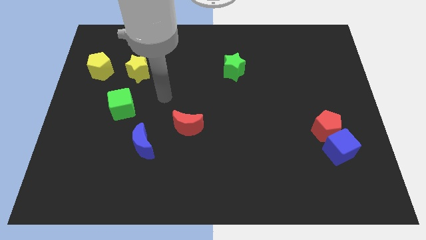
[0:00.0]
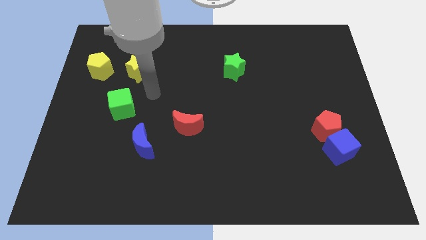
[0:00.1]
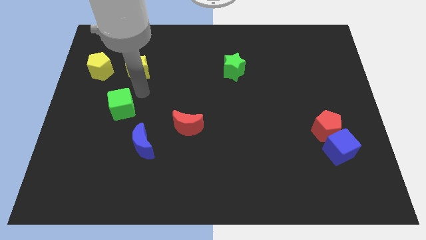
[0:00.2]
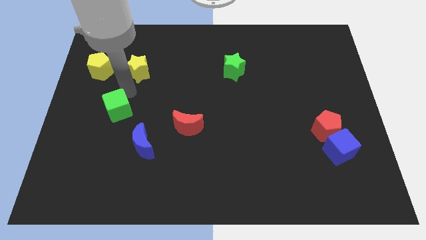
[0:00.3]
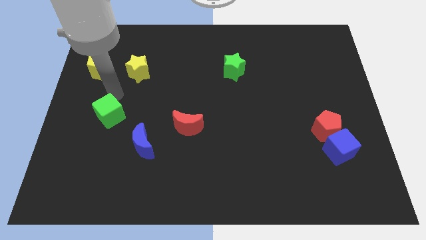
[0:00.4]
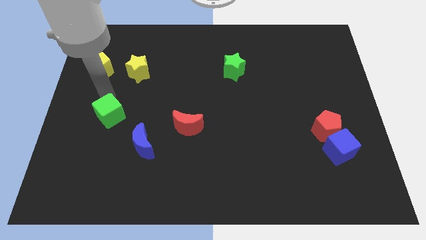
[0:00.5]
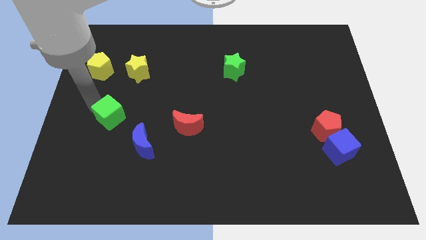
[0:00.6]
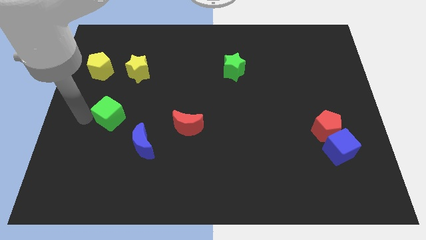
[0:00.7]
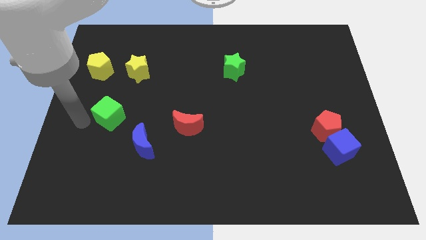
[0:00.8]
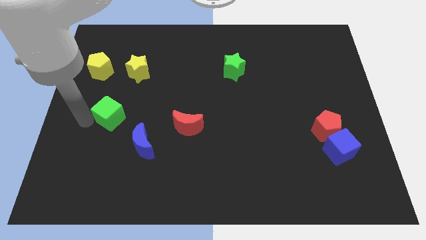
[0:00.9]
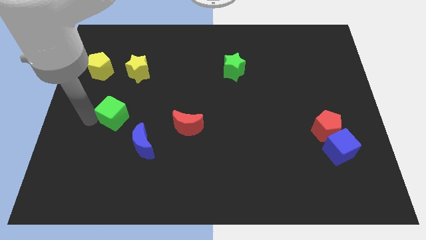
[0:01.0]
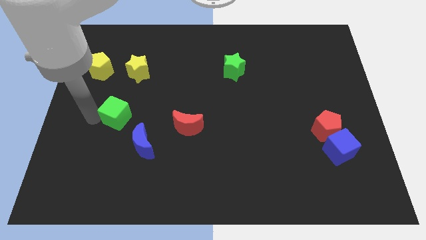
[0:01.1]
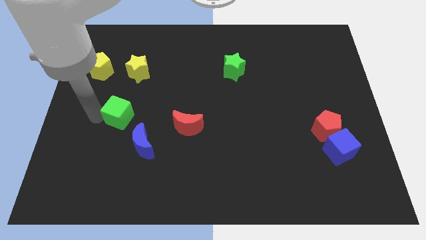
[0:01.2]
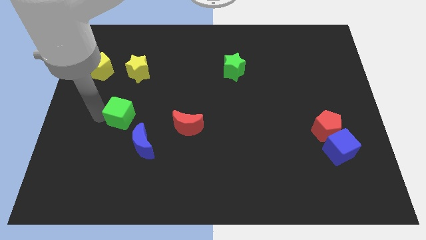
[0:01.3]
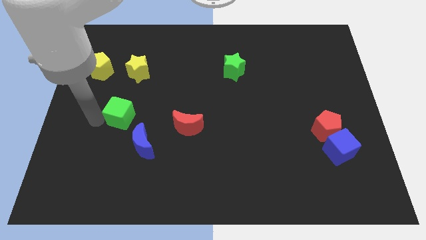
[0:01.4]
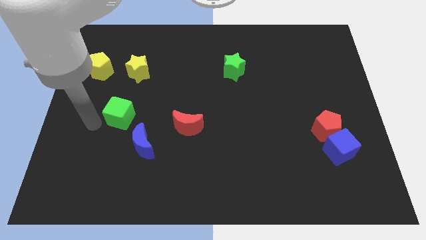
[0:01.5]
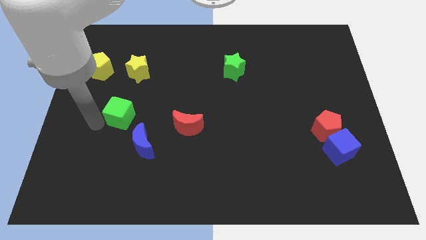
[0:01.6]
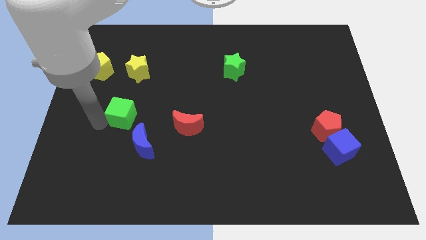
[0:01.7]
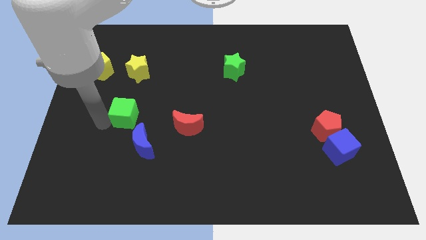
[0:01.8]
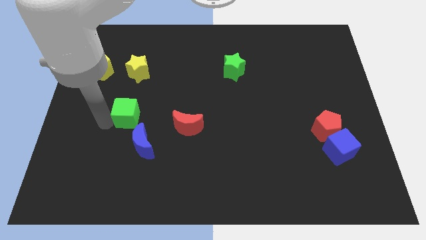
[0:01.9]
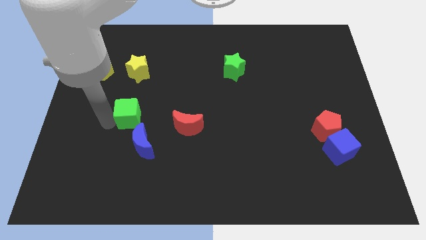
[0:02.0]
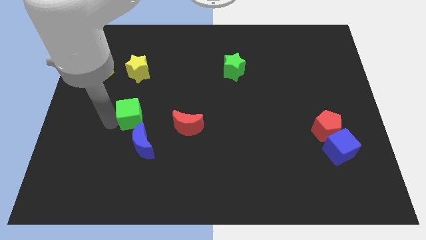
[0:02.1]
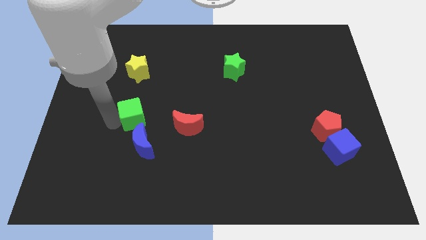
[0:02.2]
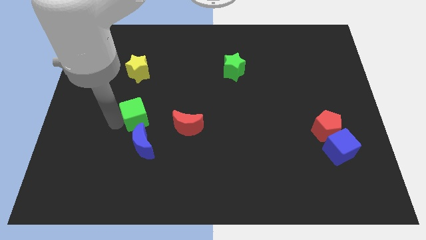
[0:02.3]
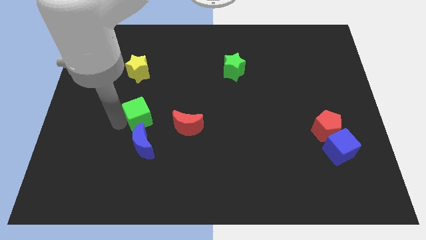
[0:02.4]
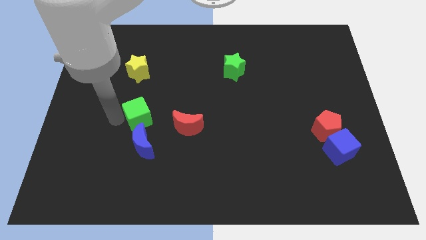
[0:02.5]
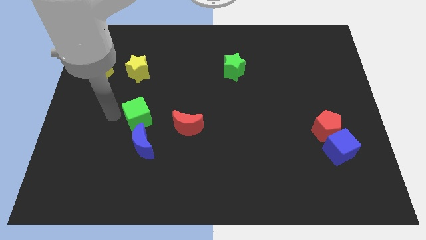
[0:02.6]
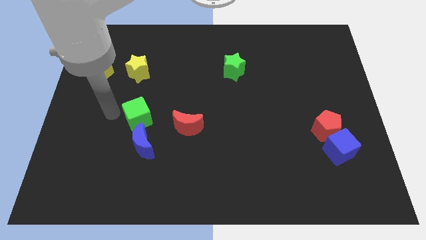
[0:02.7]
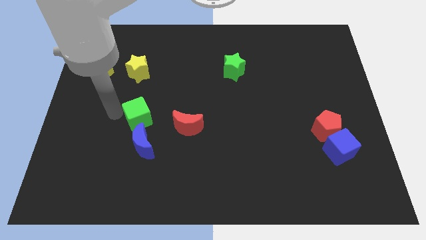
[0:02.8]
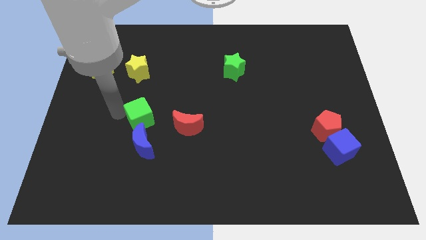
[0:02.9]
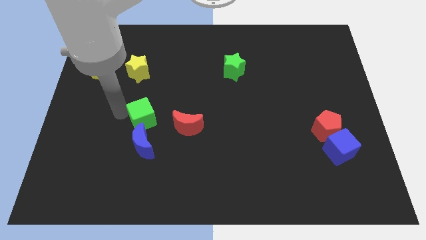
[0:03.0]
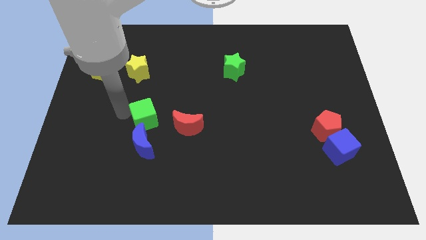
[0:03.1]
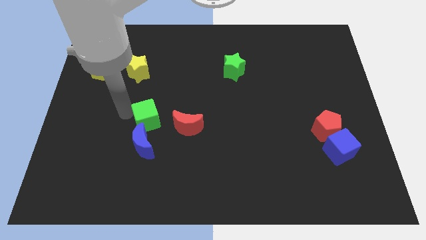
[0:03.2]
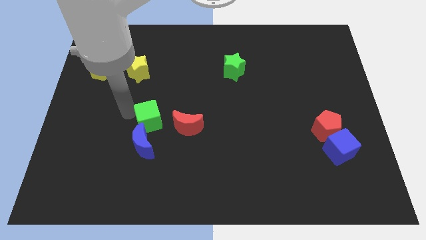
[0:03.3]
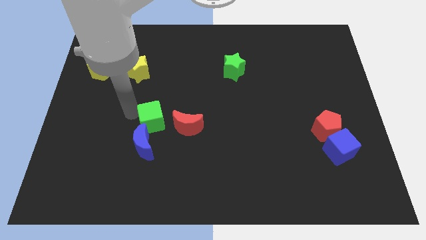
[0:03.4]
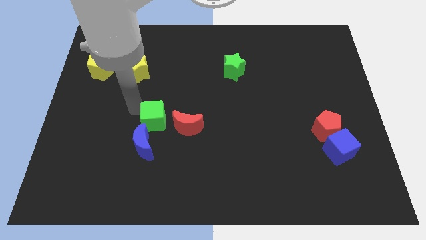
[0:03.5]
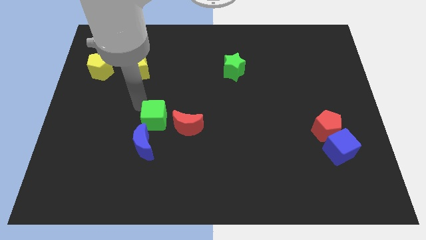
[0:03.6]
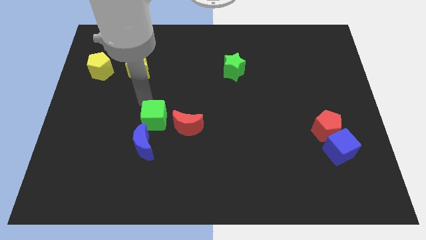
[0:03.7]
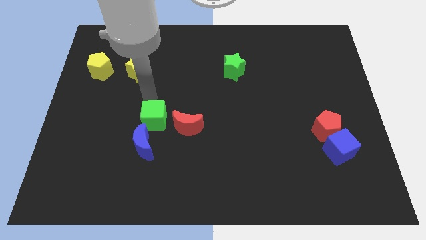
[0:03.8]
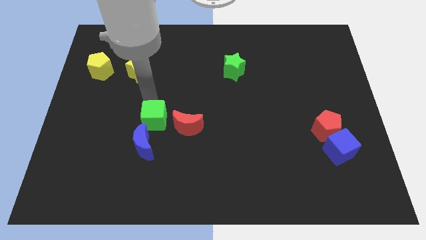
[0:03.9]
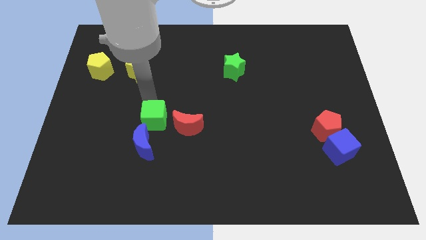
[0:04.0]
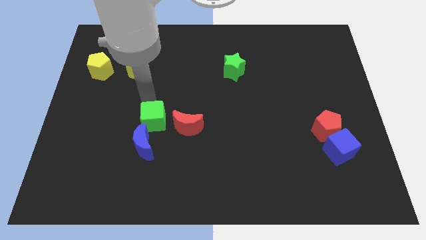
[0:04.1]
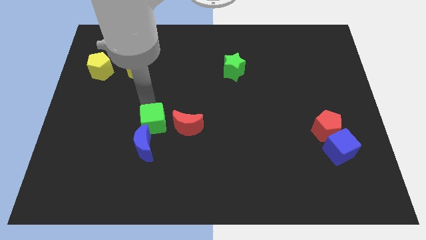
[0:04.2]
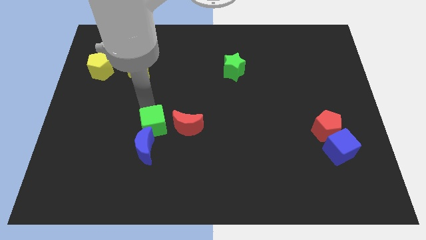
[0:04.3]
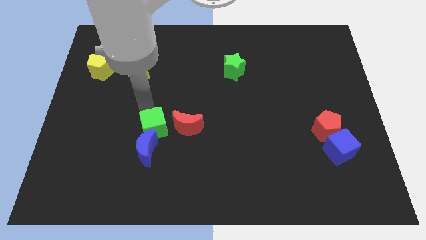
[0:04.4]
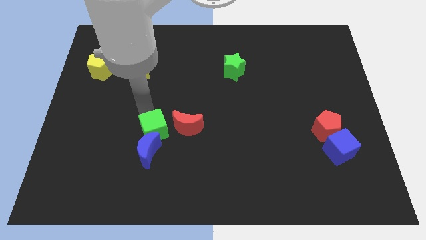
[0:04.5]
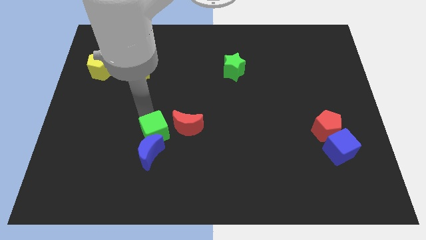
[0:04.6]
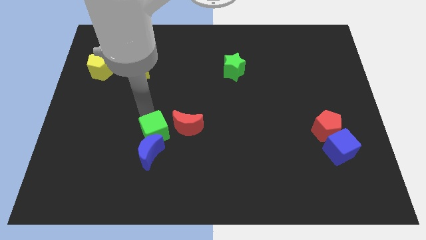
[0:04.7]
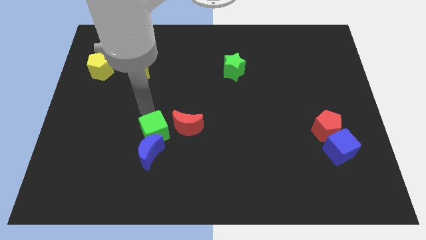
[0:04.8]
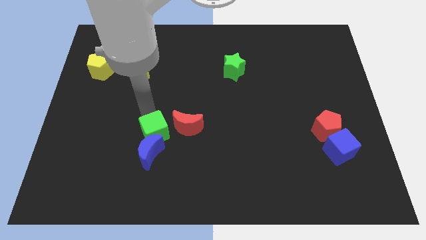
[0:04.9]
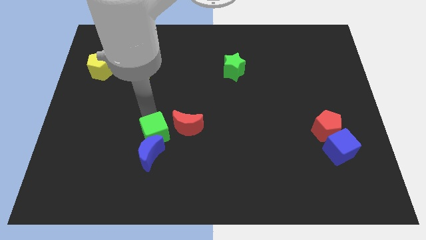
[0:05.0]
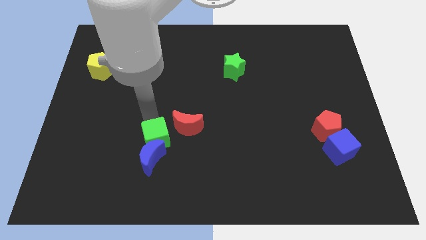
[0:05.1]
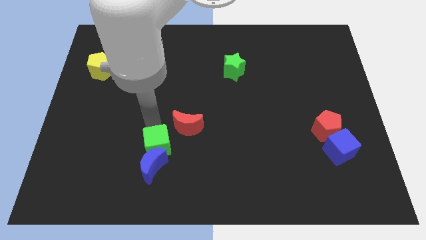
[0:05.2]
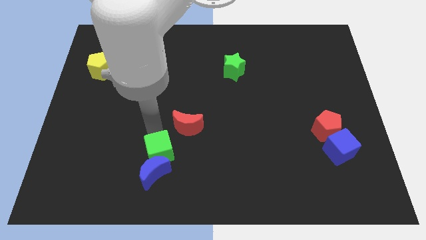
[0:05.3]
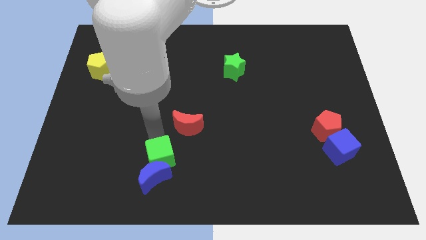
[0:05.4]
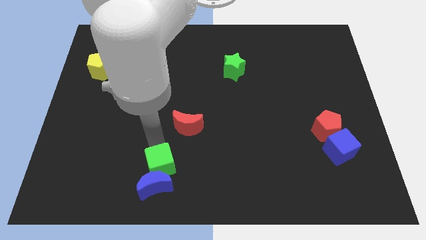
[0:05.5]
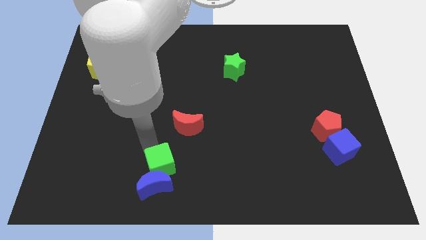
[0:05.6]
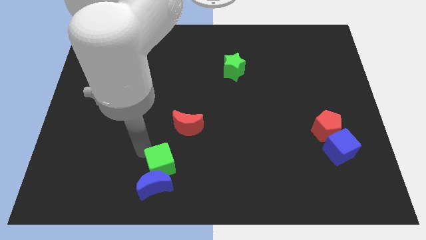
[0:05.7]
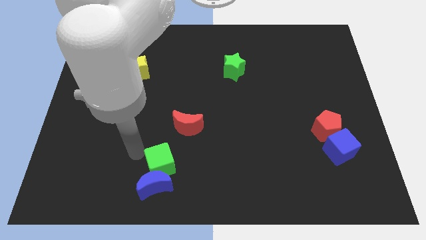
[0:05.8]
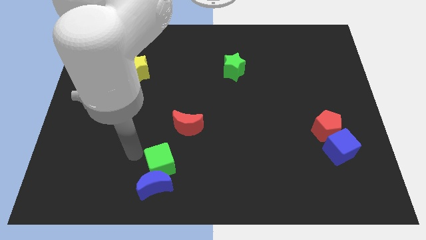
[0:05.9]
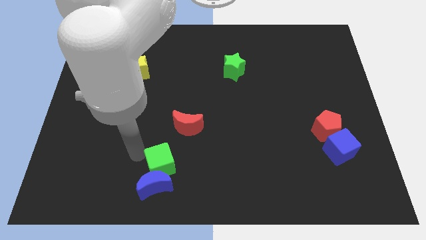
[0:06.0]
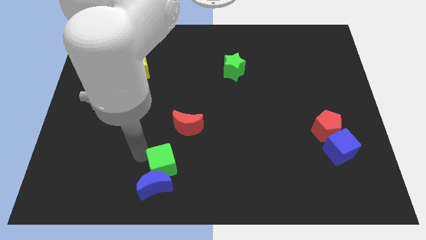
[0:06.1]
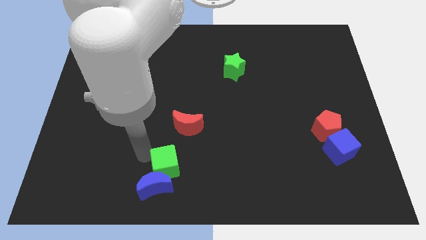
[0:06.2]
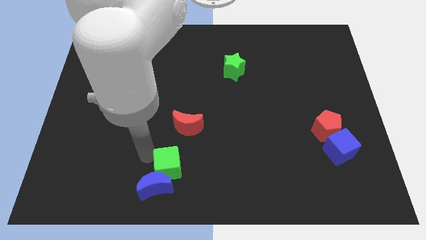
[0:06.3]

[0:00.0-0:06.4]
slide the green cube to the bottom
